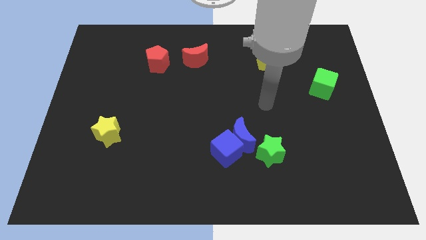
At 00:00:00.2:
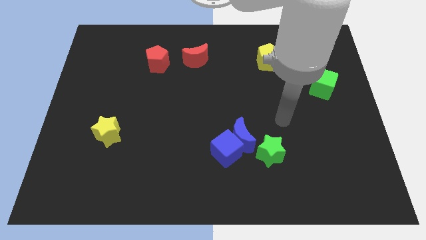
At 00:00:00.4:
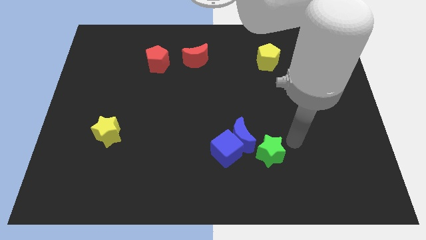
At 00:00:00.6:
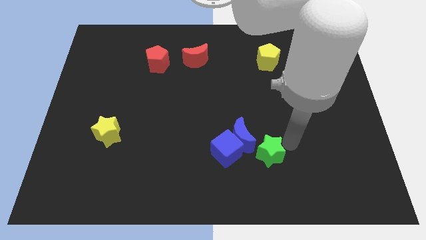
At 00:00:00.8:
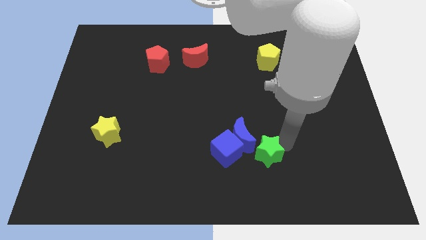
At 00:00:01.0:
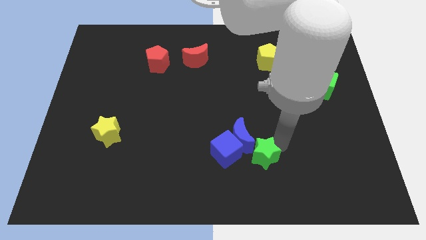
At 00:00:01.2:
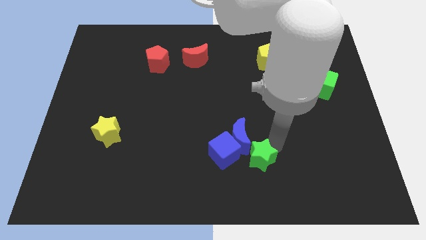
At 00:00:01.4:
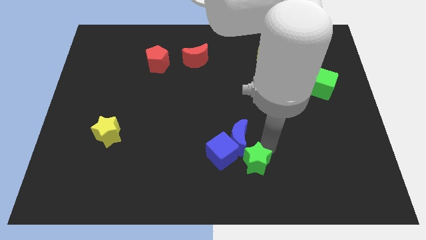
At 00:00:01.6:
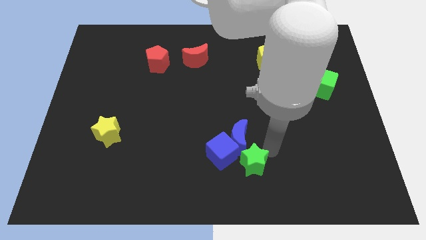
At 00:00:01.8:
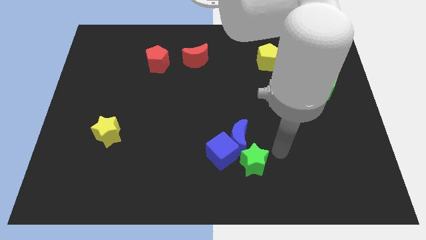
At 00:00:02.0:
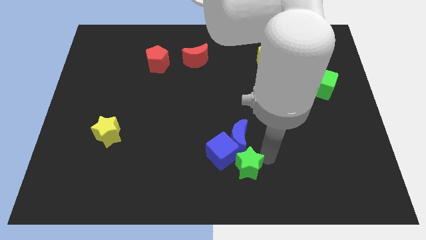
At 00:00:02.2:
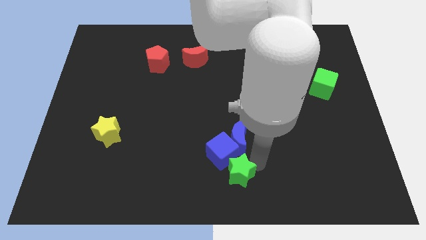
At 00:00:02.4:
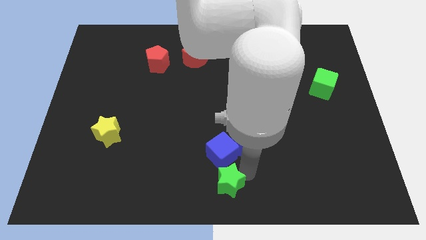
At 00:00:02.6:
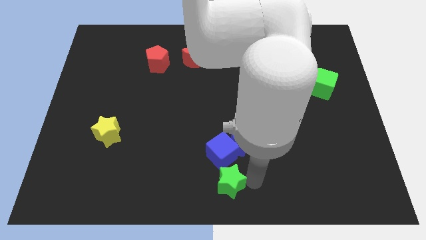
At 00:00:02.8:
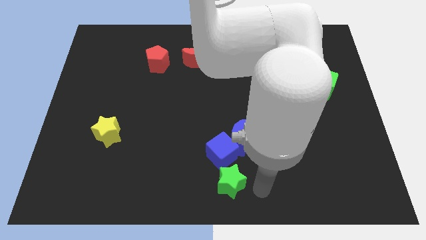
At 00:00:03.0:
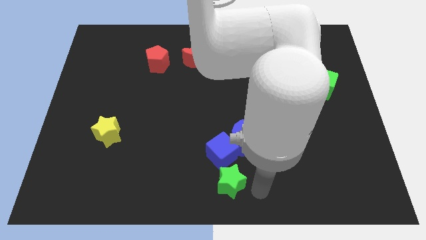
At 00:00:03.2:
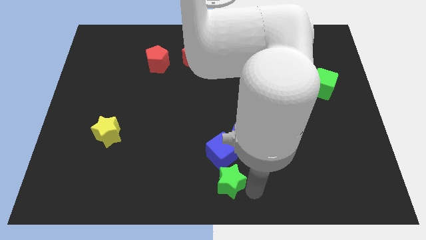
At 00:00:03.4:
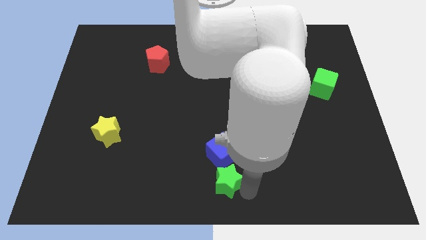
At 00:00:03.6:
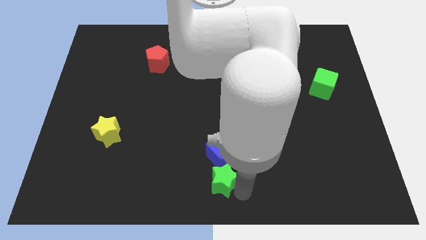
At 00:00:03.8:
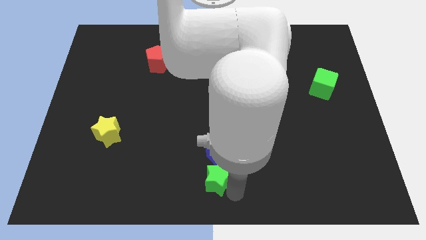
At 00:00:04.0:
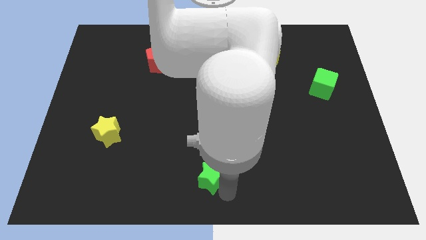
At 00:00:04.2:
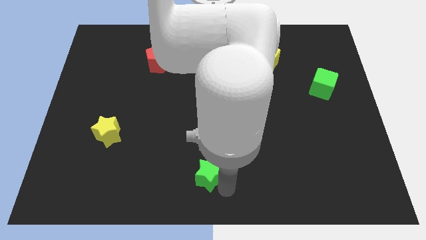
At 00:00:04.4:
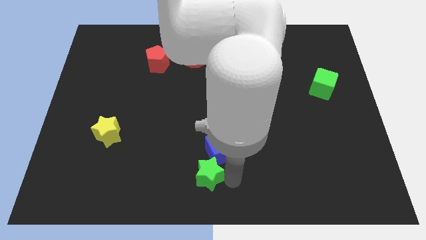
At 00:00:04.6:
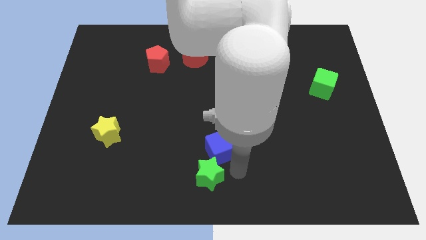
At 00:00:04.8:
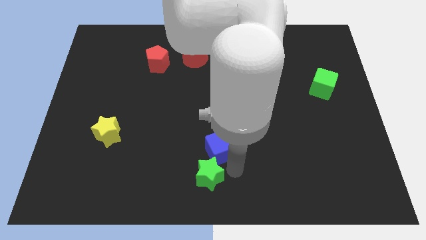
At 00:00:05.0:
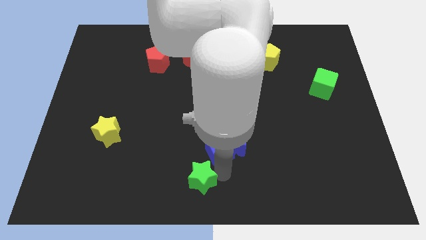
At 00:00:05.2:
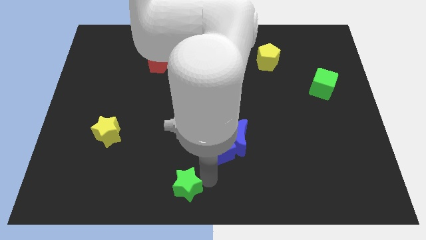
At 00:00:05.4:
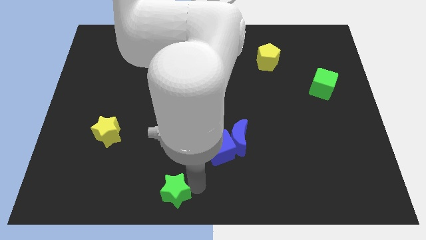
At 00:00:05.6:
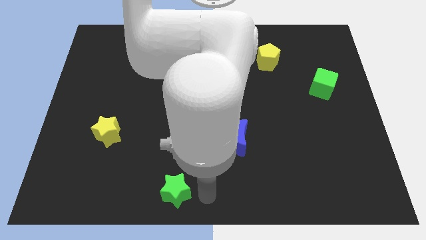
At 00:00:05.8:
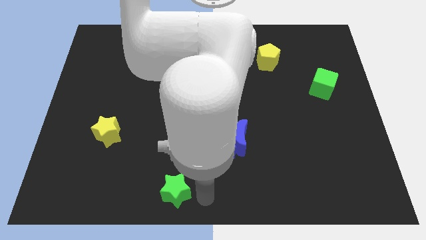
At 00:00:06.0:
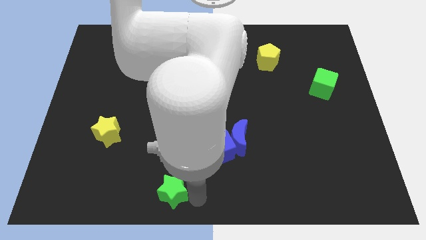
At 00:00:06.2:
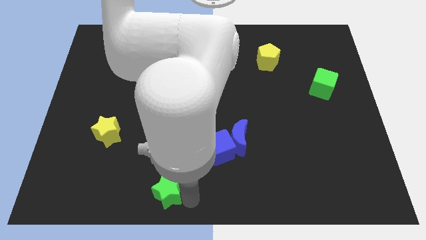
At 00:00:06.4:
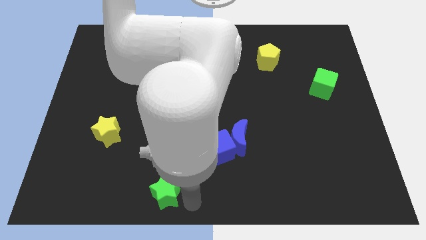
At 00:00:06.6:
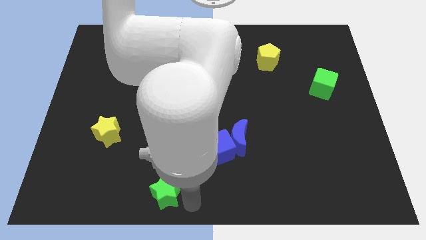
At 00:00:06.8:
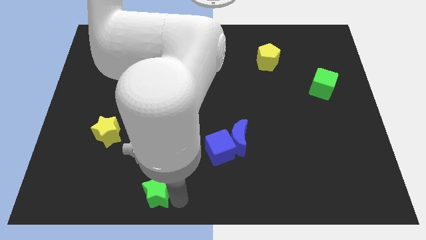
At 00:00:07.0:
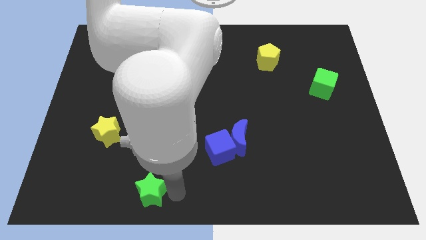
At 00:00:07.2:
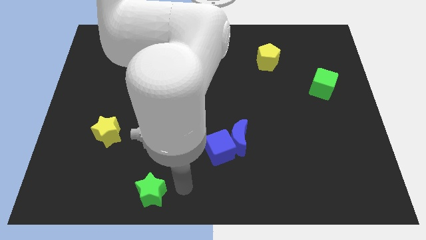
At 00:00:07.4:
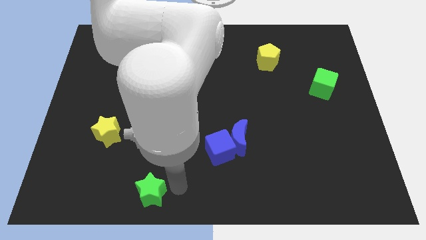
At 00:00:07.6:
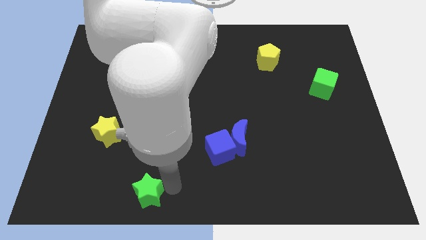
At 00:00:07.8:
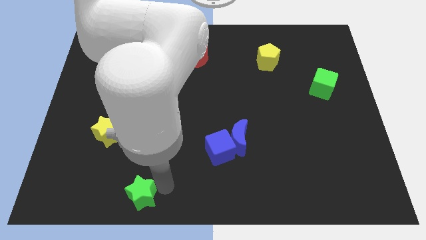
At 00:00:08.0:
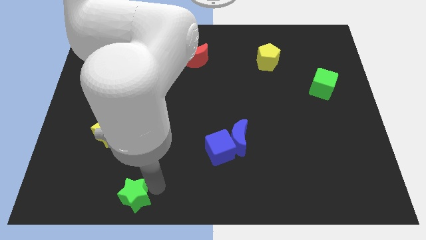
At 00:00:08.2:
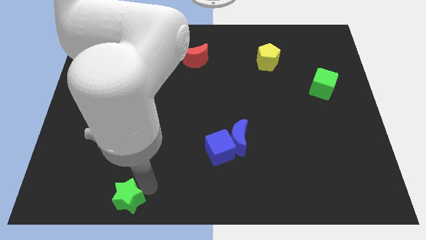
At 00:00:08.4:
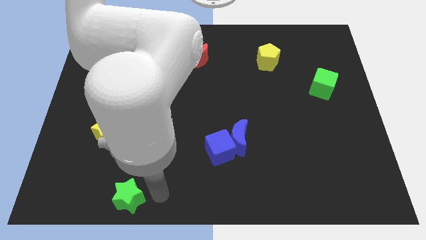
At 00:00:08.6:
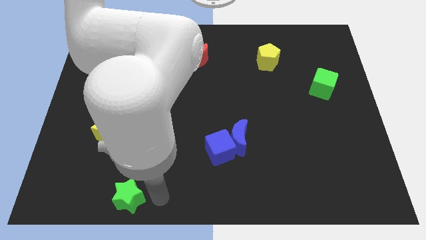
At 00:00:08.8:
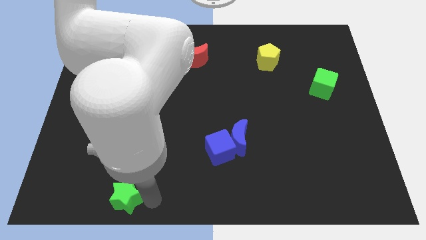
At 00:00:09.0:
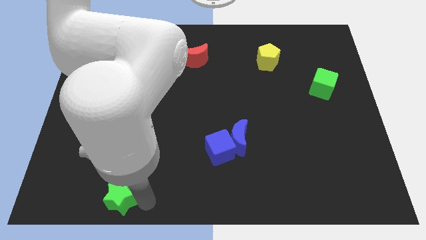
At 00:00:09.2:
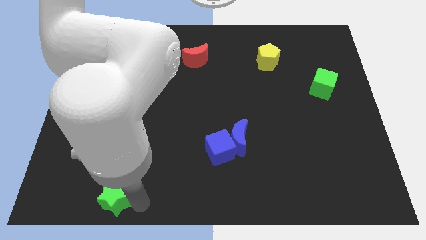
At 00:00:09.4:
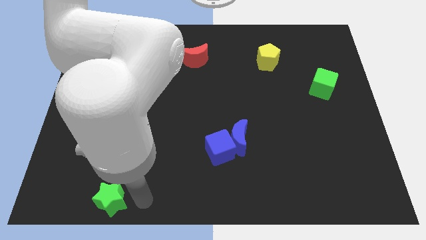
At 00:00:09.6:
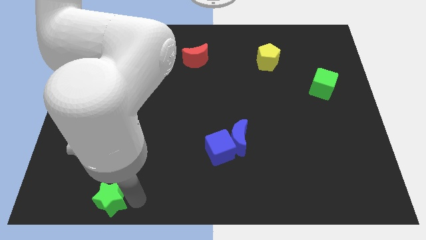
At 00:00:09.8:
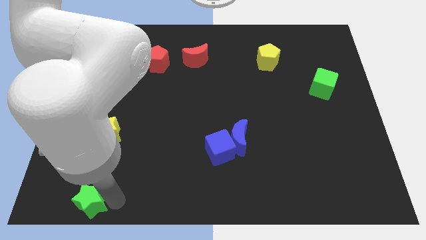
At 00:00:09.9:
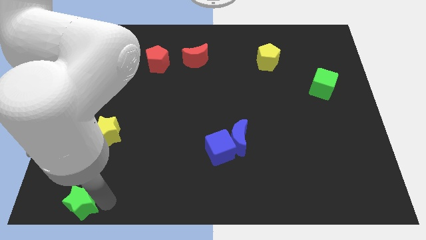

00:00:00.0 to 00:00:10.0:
move the green star to the bottom left
